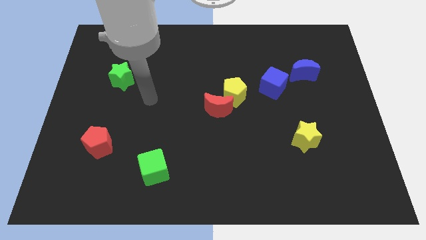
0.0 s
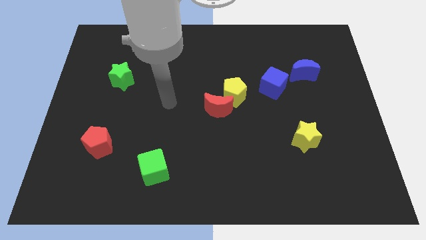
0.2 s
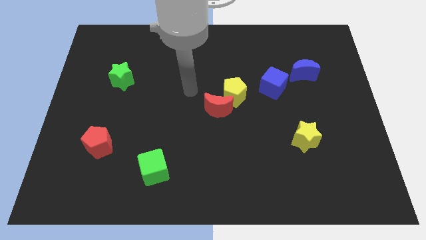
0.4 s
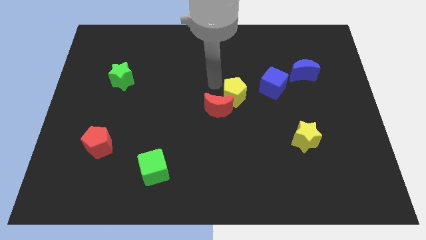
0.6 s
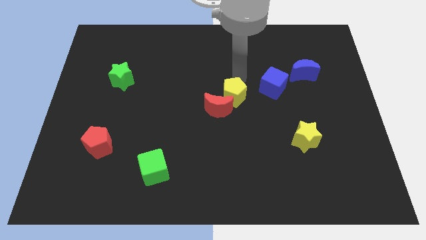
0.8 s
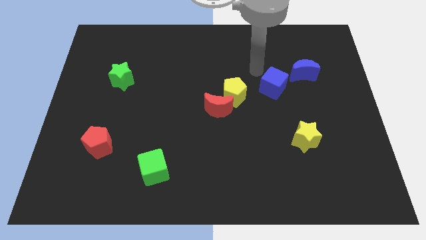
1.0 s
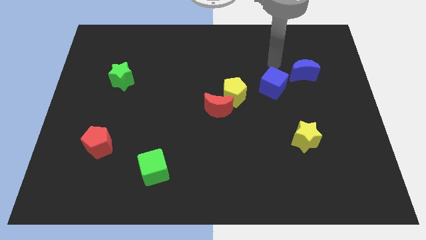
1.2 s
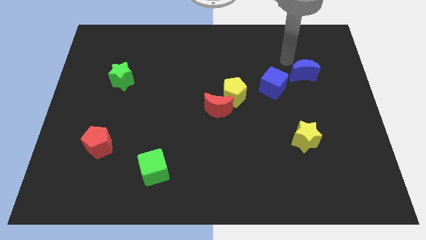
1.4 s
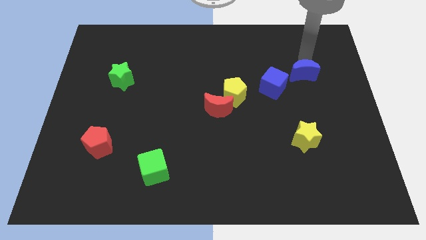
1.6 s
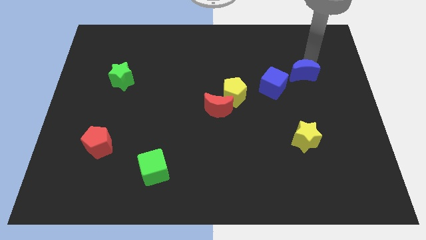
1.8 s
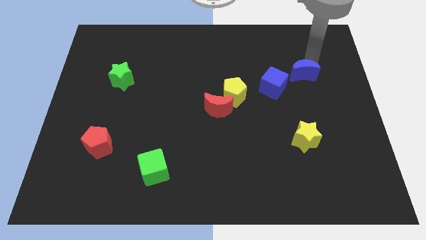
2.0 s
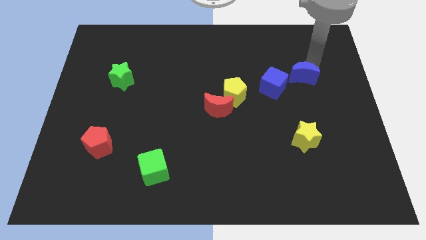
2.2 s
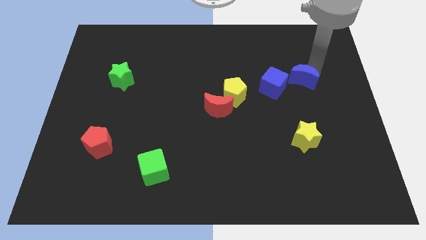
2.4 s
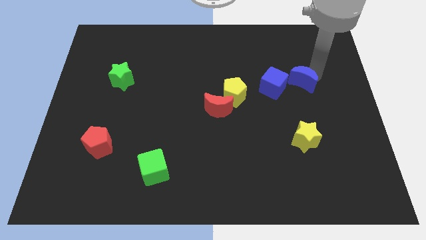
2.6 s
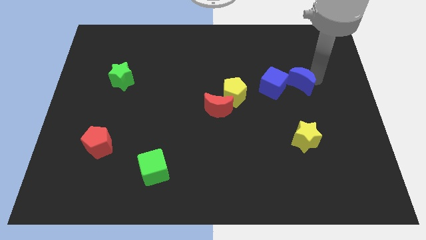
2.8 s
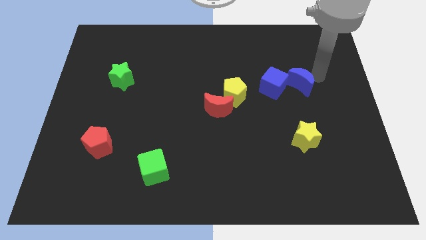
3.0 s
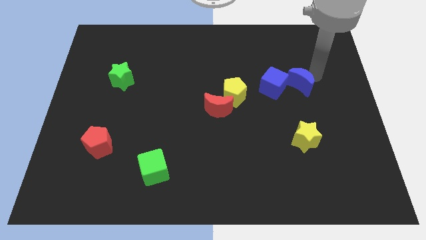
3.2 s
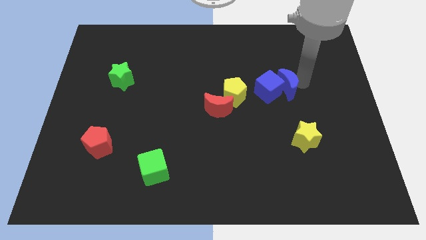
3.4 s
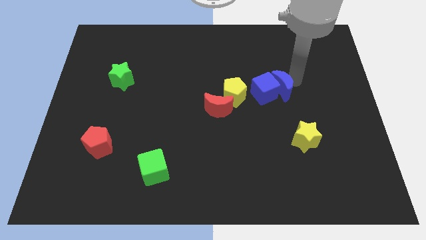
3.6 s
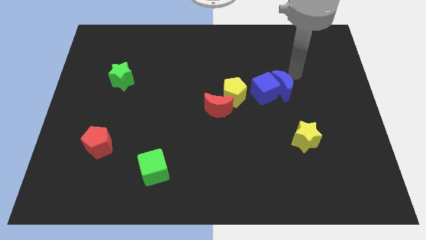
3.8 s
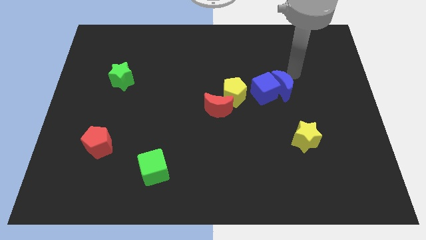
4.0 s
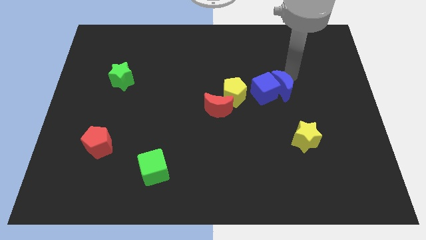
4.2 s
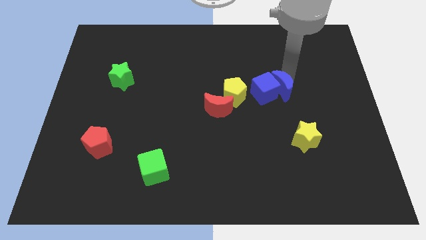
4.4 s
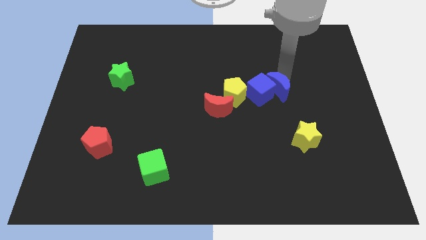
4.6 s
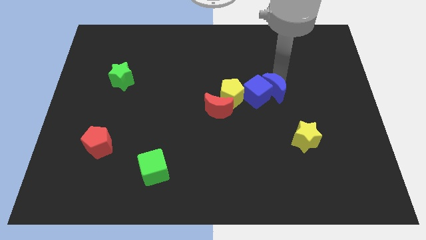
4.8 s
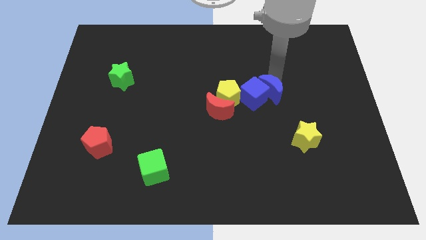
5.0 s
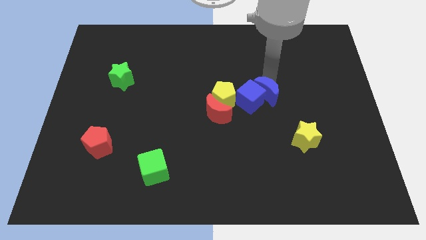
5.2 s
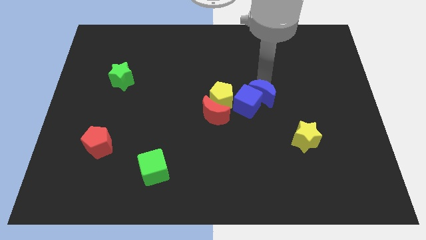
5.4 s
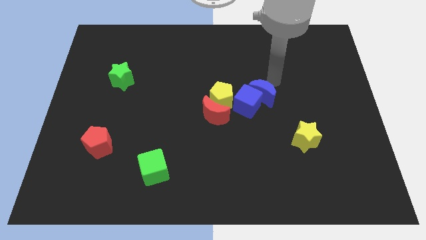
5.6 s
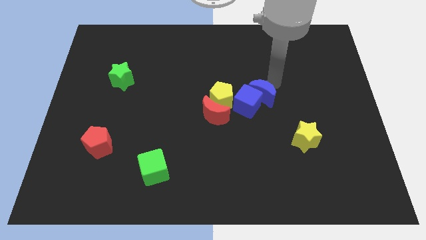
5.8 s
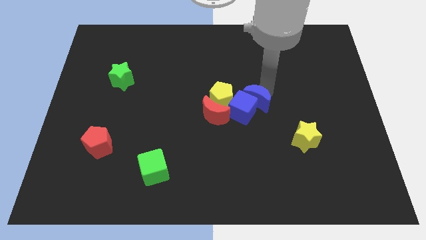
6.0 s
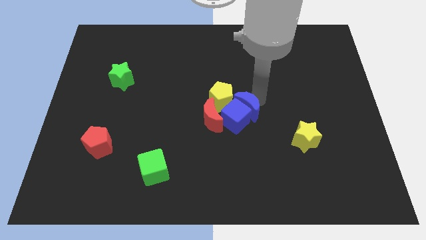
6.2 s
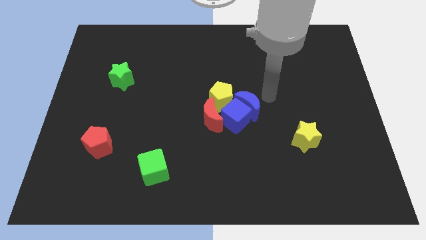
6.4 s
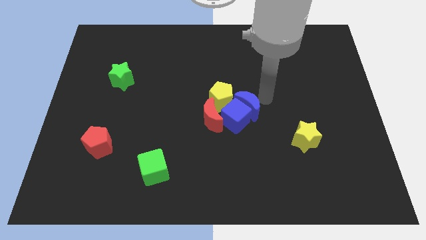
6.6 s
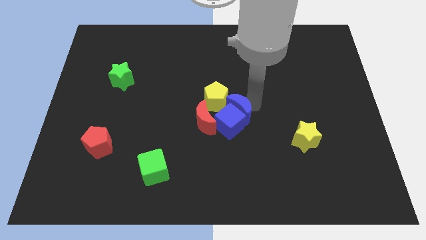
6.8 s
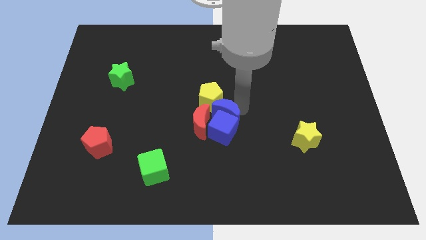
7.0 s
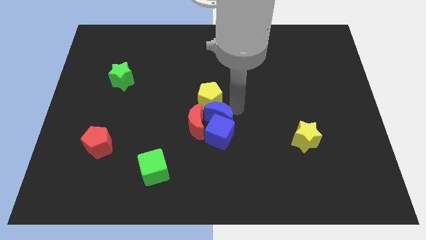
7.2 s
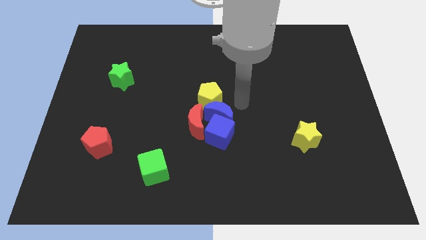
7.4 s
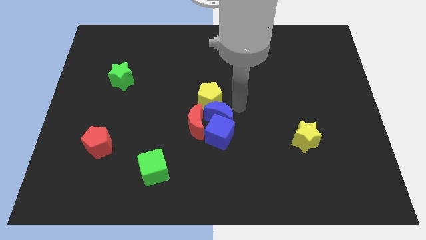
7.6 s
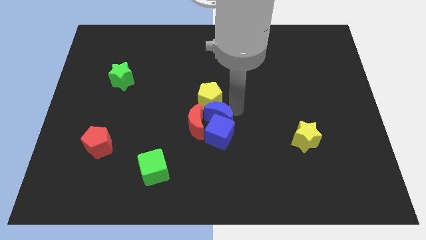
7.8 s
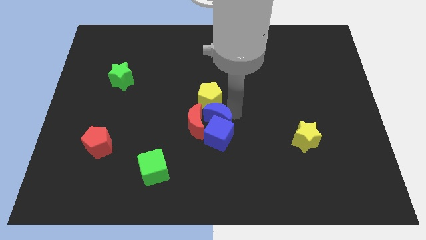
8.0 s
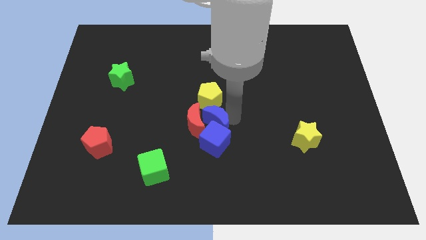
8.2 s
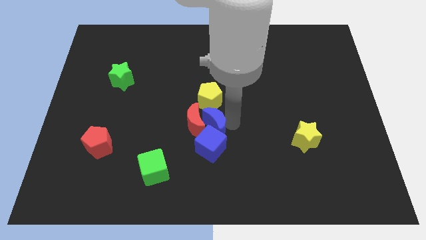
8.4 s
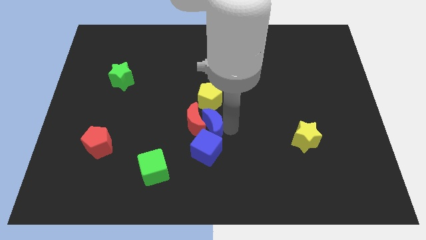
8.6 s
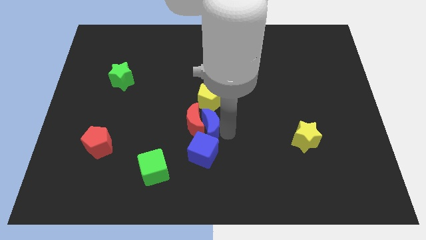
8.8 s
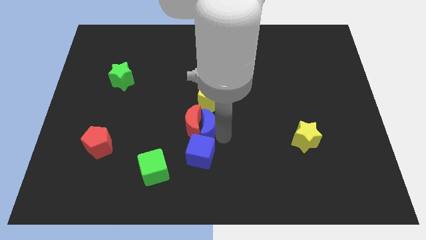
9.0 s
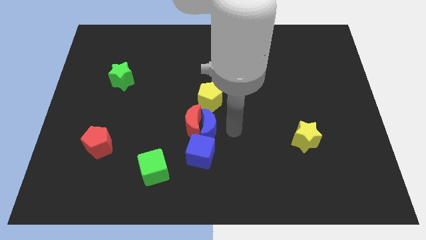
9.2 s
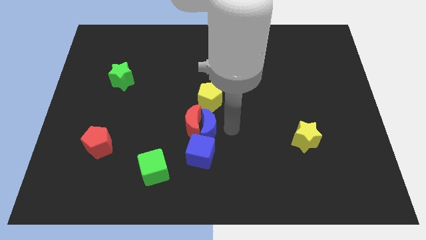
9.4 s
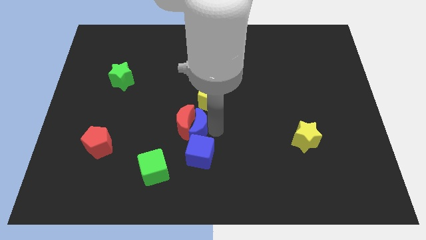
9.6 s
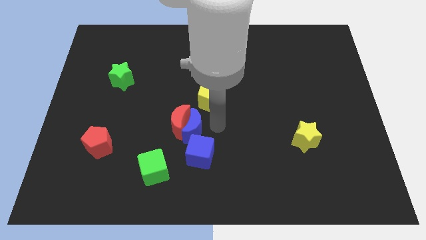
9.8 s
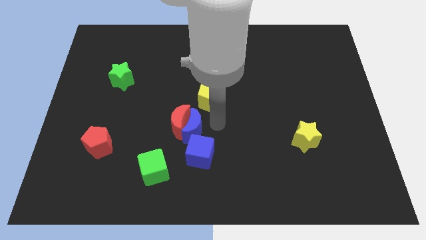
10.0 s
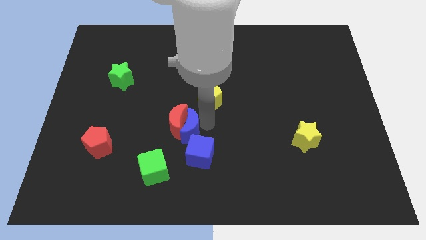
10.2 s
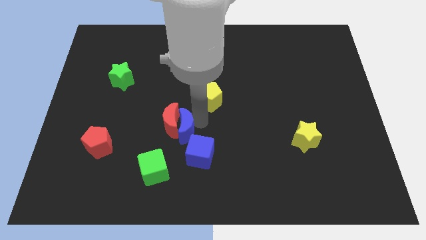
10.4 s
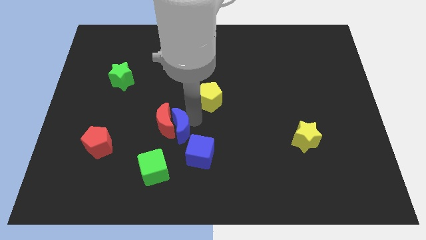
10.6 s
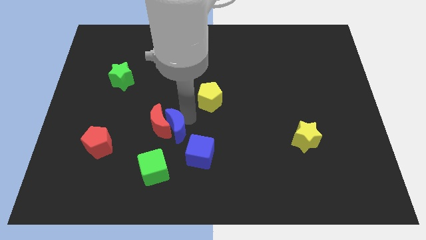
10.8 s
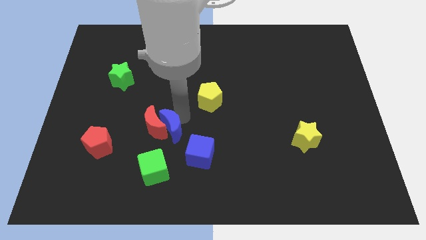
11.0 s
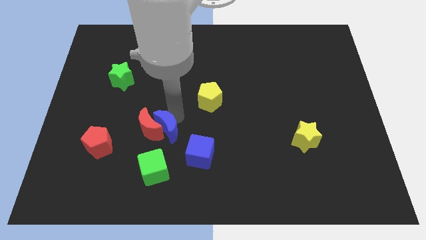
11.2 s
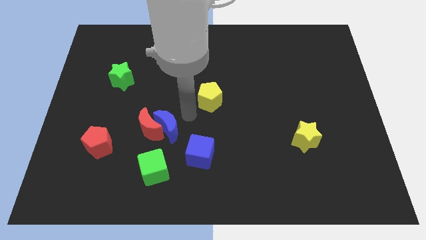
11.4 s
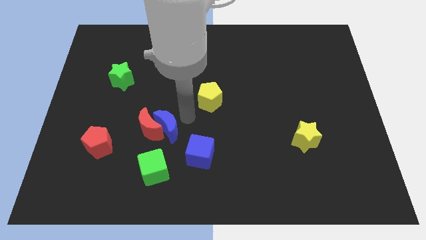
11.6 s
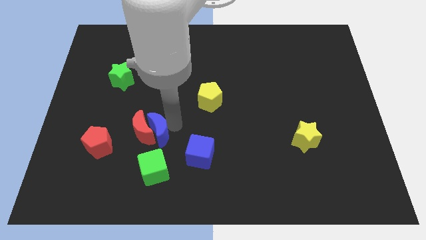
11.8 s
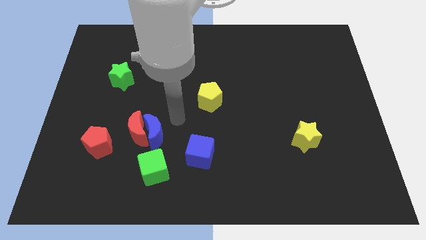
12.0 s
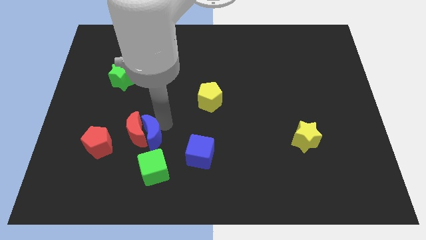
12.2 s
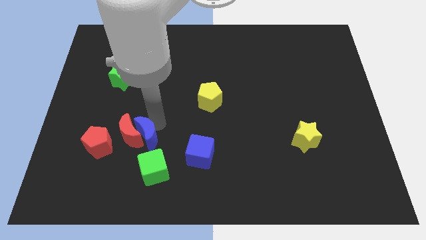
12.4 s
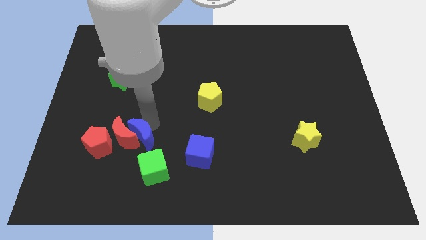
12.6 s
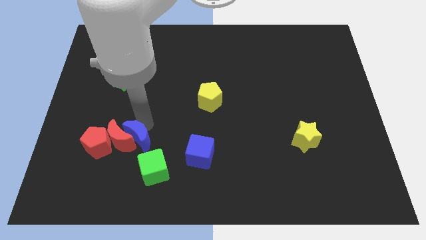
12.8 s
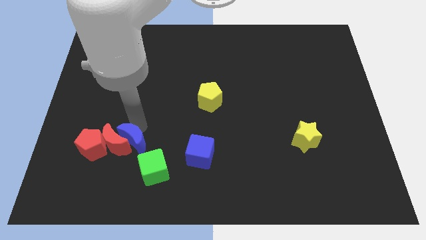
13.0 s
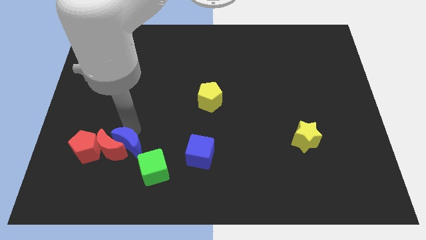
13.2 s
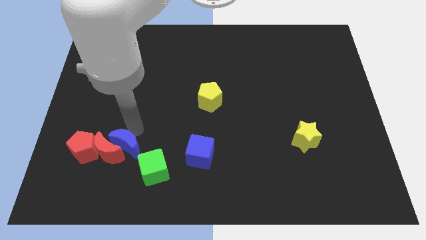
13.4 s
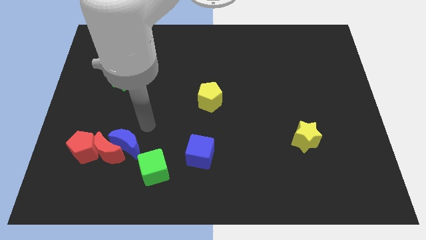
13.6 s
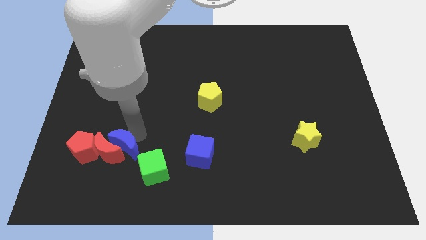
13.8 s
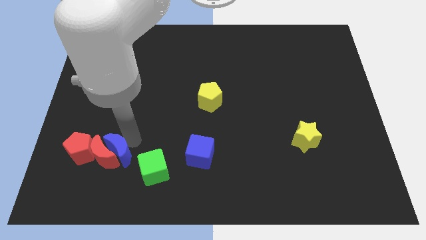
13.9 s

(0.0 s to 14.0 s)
put the blue moon to the left side of the green cube

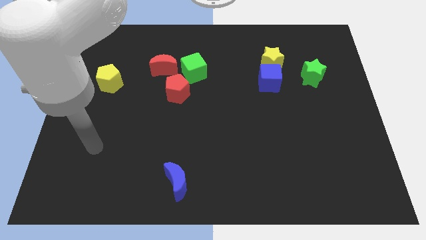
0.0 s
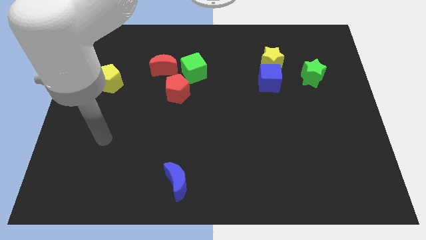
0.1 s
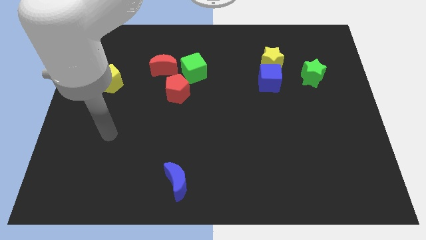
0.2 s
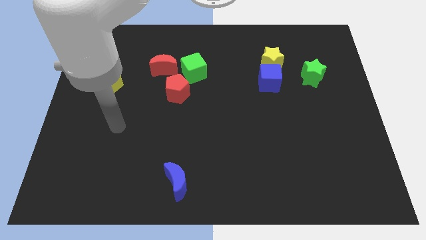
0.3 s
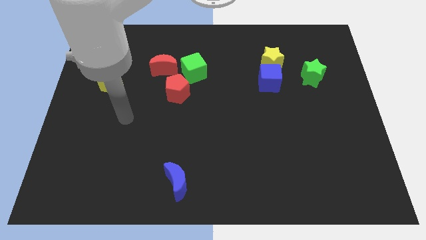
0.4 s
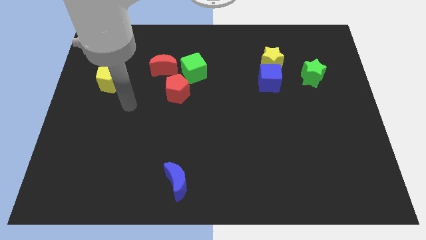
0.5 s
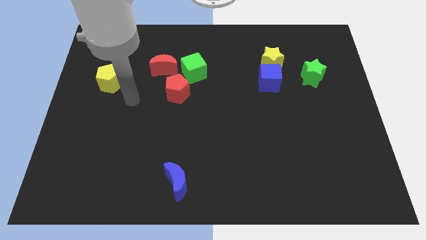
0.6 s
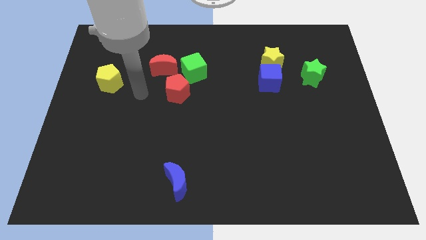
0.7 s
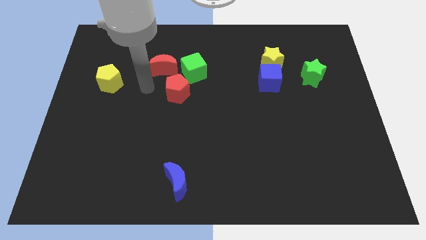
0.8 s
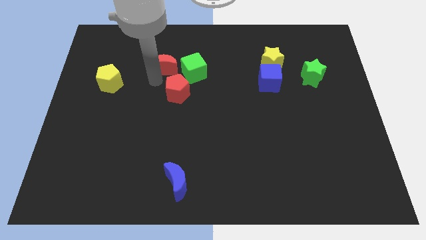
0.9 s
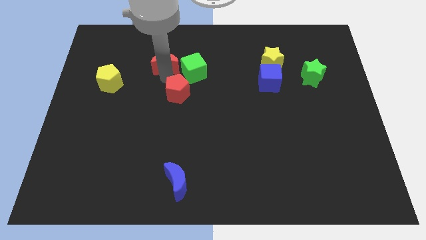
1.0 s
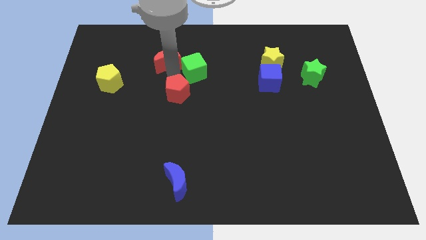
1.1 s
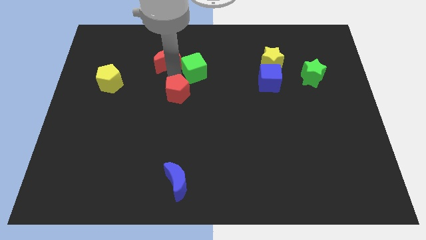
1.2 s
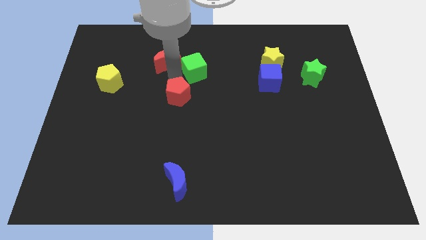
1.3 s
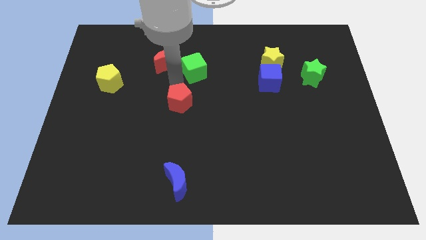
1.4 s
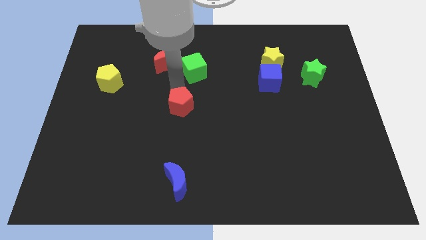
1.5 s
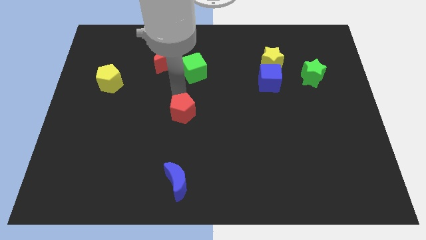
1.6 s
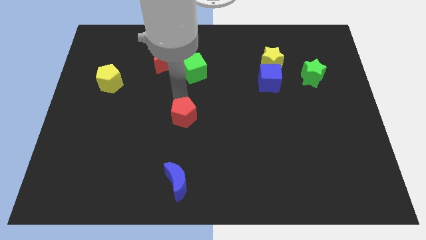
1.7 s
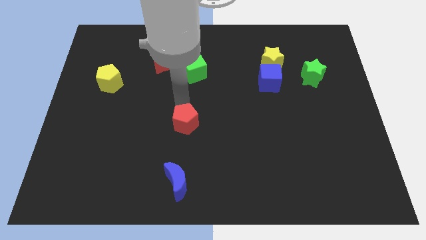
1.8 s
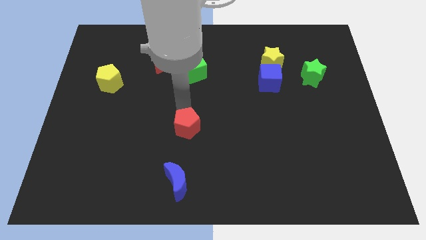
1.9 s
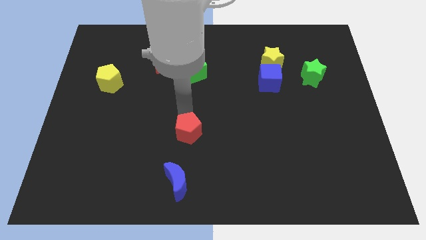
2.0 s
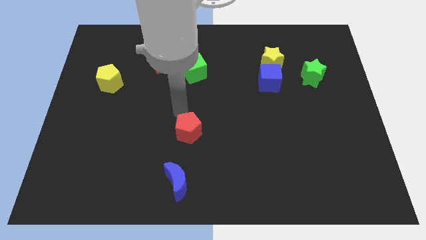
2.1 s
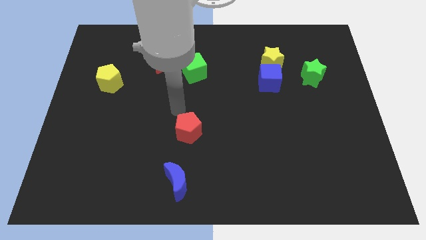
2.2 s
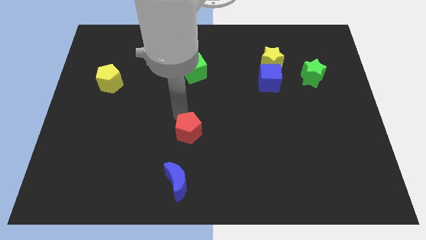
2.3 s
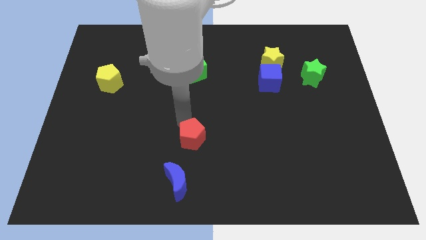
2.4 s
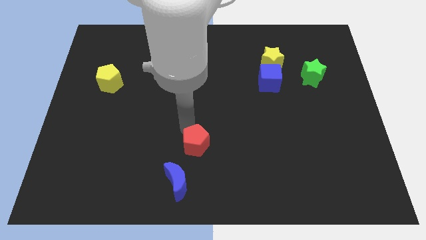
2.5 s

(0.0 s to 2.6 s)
slide the red pentagon to the top right side of the blue moon
